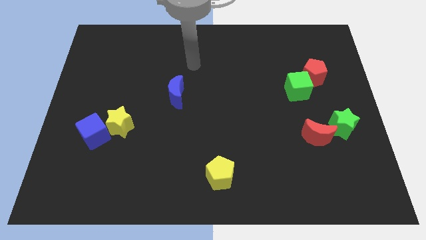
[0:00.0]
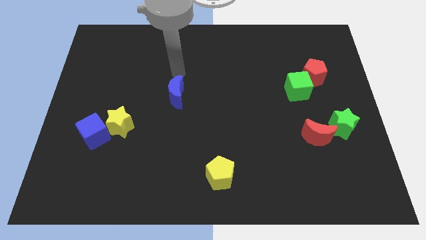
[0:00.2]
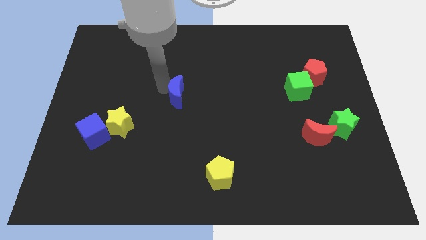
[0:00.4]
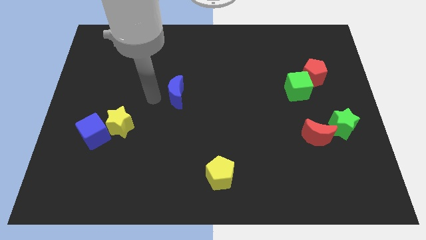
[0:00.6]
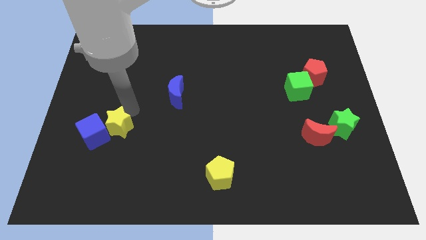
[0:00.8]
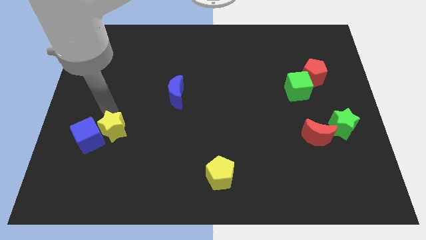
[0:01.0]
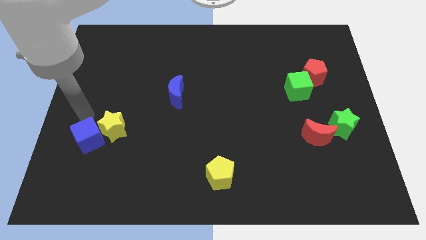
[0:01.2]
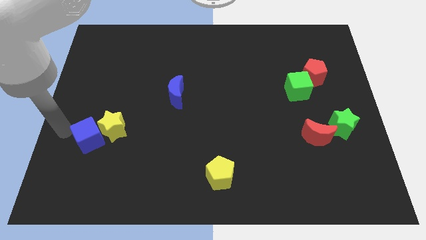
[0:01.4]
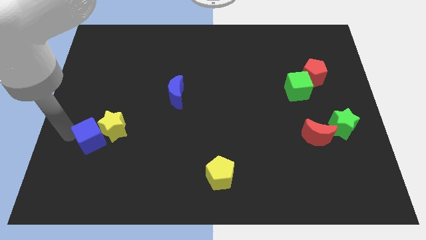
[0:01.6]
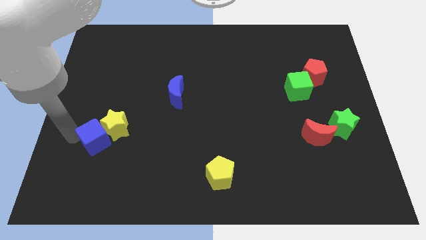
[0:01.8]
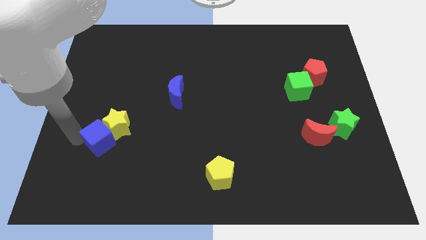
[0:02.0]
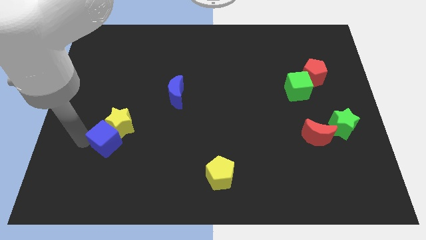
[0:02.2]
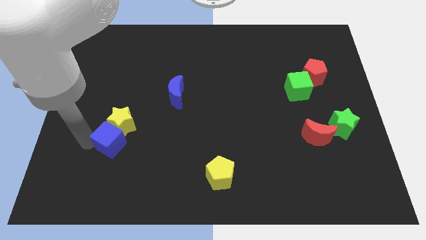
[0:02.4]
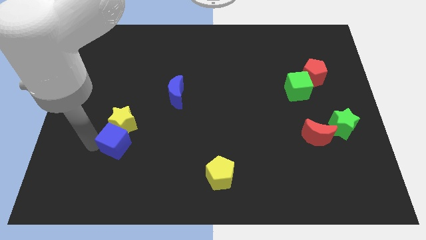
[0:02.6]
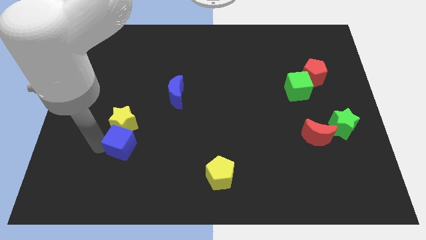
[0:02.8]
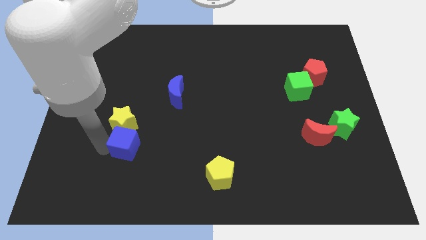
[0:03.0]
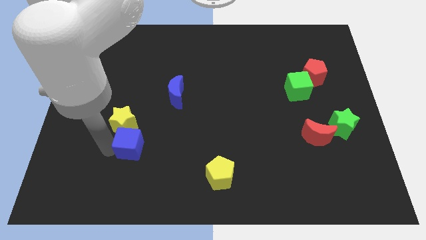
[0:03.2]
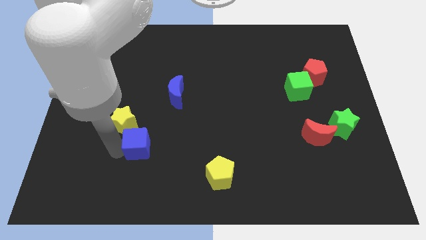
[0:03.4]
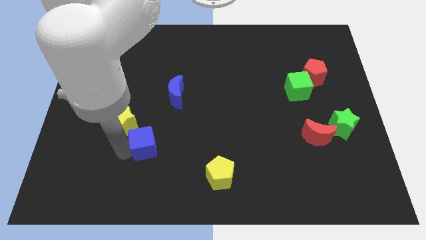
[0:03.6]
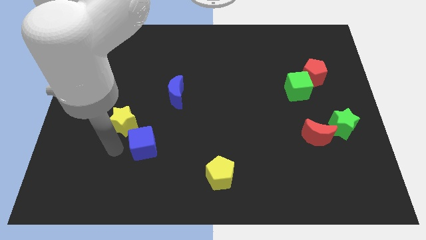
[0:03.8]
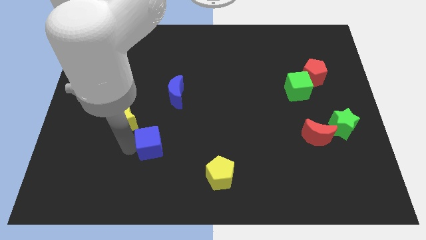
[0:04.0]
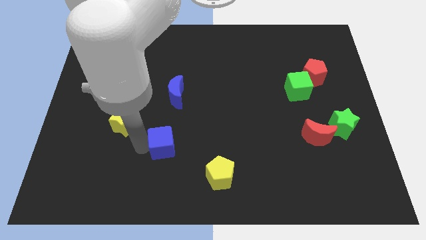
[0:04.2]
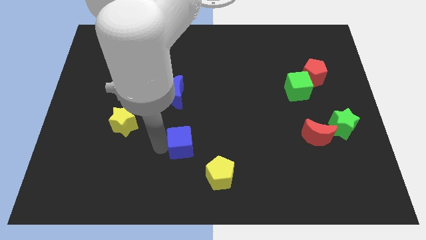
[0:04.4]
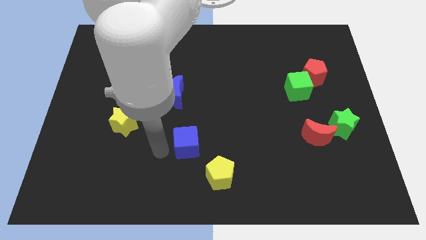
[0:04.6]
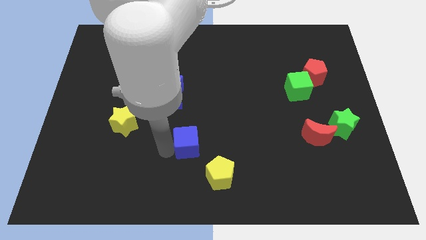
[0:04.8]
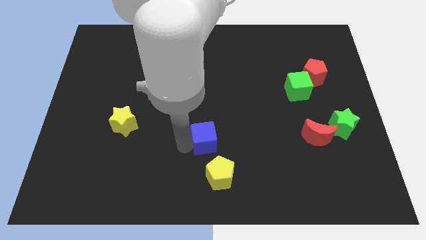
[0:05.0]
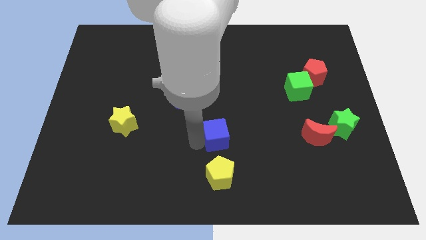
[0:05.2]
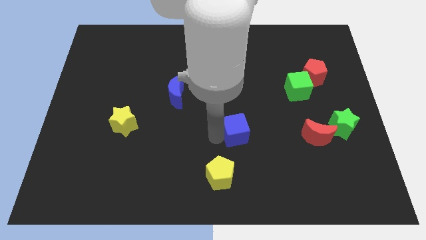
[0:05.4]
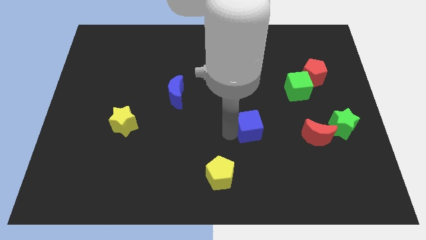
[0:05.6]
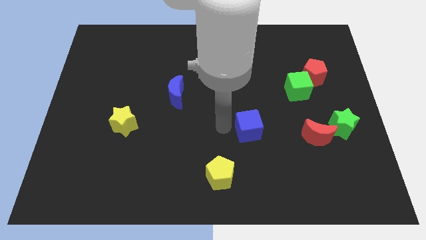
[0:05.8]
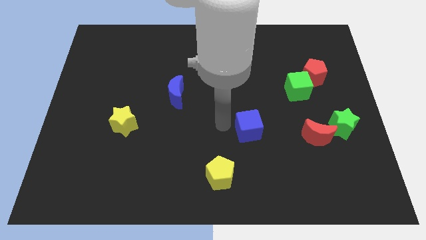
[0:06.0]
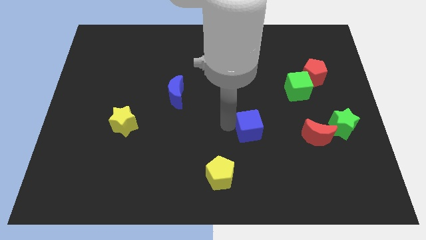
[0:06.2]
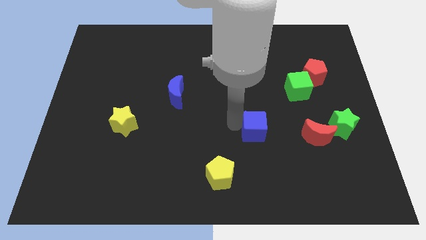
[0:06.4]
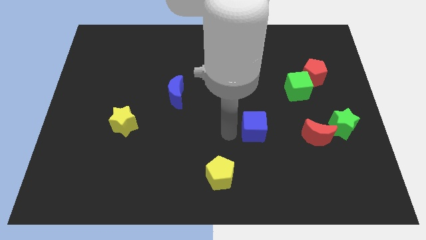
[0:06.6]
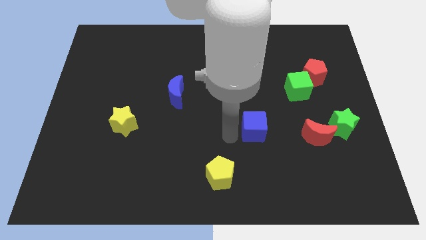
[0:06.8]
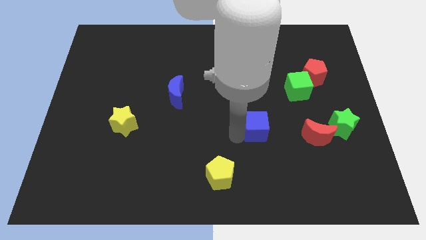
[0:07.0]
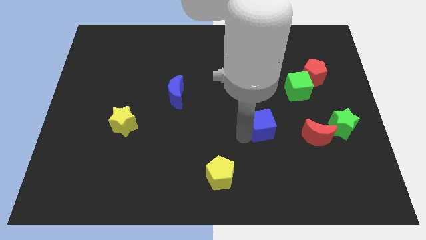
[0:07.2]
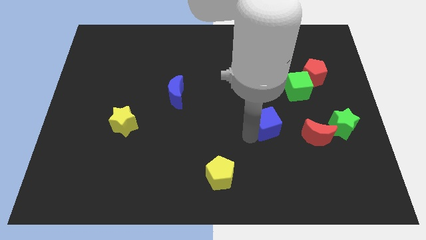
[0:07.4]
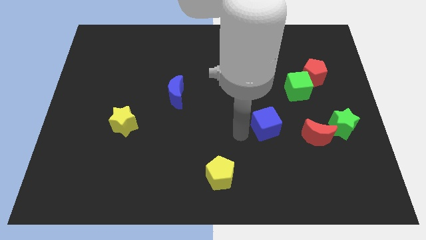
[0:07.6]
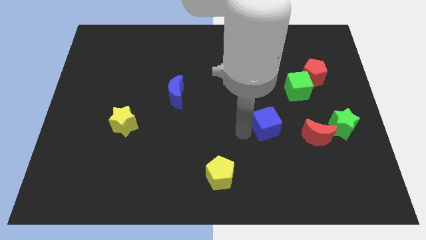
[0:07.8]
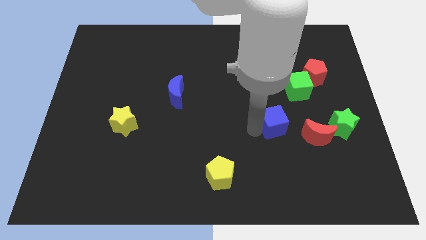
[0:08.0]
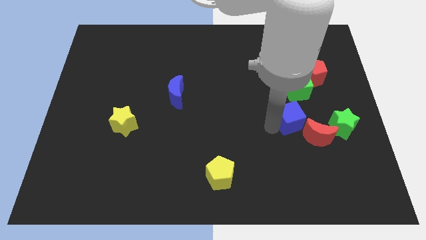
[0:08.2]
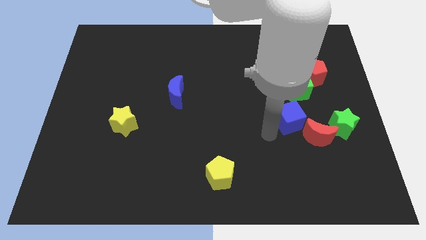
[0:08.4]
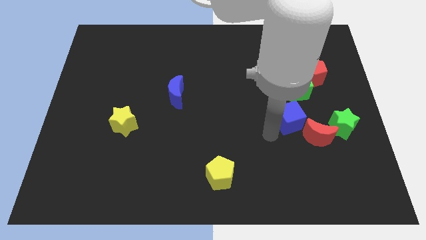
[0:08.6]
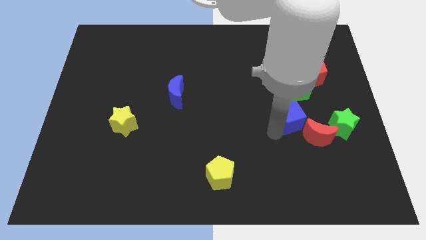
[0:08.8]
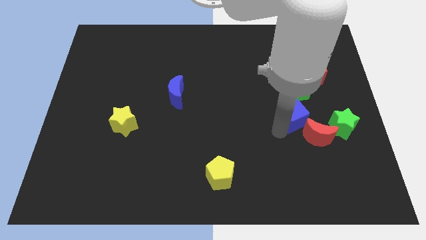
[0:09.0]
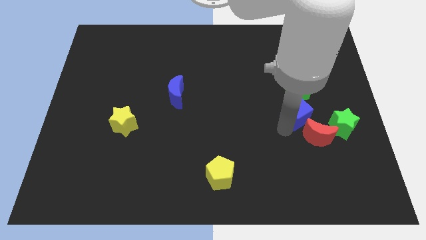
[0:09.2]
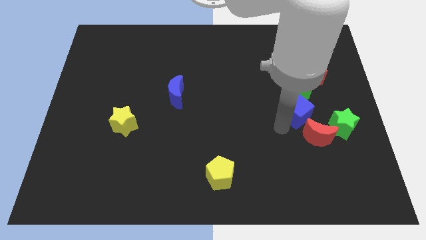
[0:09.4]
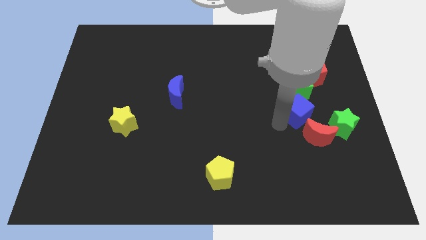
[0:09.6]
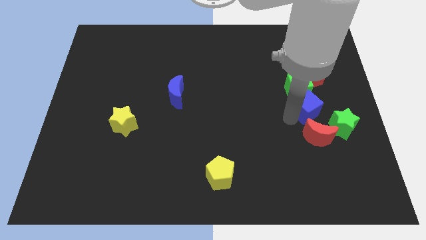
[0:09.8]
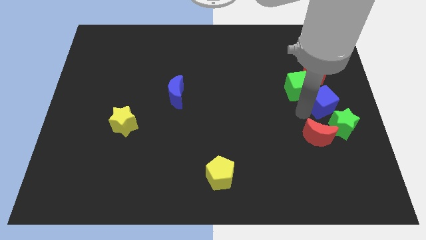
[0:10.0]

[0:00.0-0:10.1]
push the blue cube above the green star

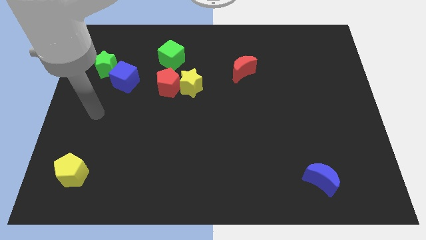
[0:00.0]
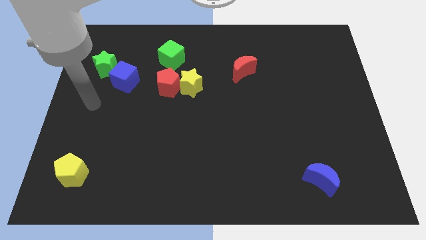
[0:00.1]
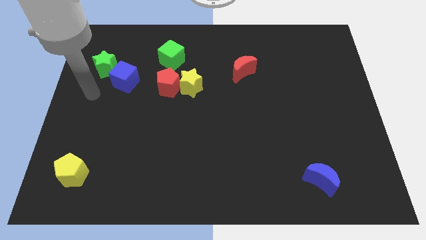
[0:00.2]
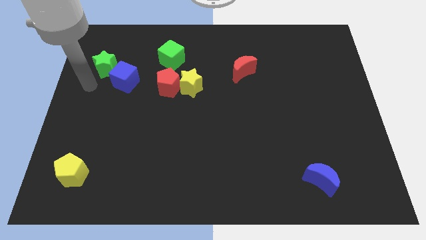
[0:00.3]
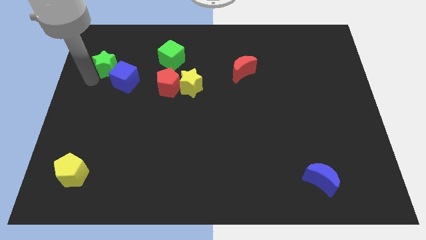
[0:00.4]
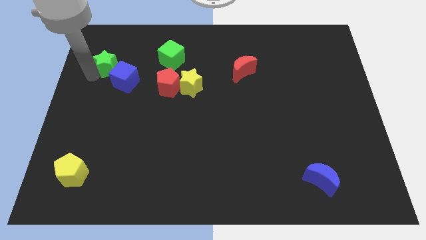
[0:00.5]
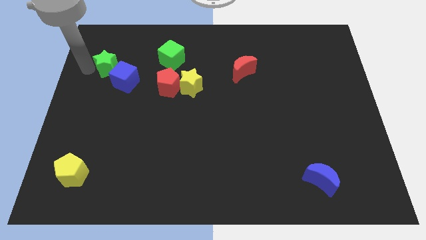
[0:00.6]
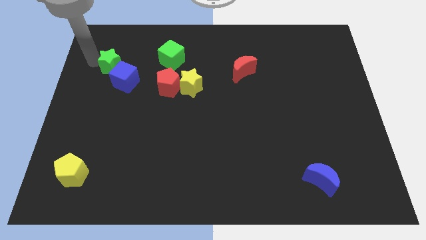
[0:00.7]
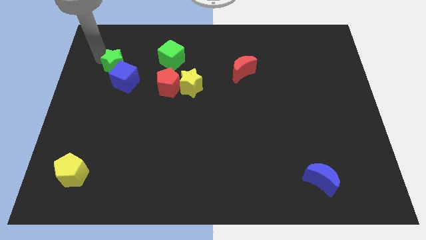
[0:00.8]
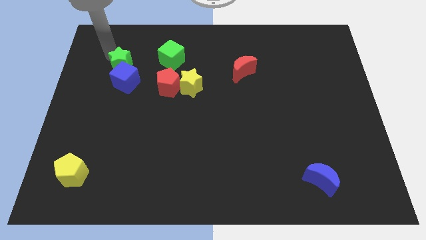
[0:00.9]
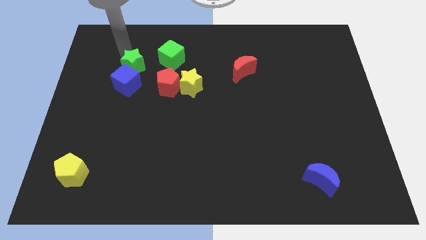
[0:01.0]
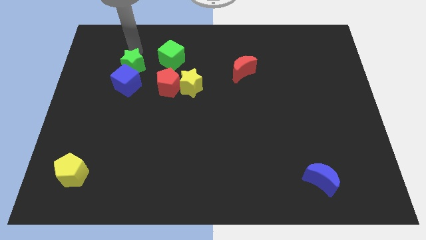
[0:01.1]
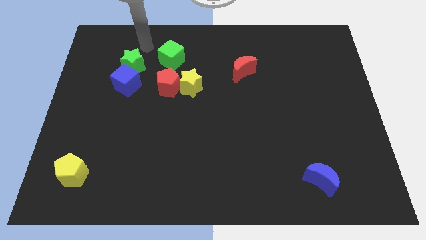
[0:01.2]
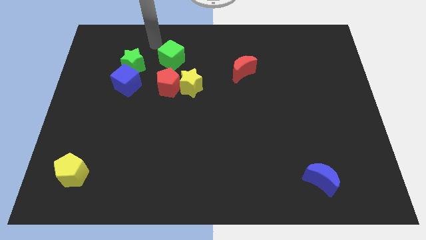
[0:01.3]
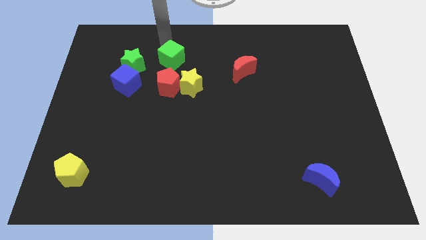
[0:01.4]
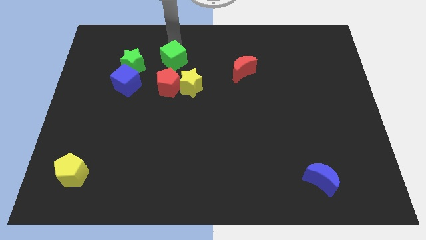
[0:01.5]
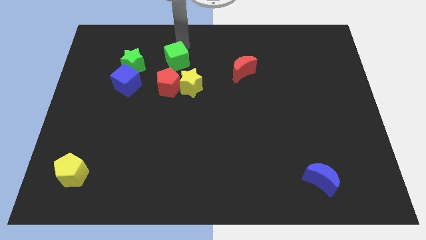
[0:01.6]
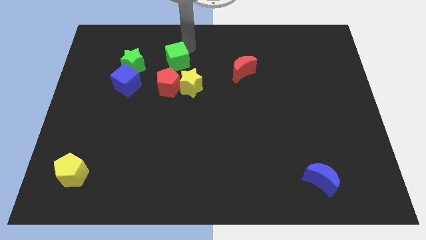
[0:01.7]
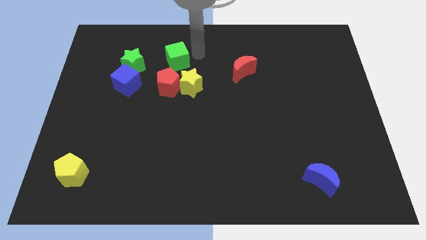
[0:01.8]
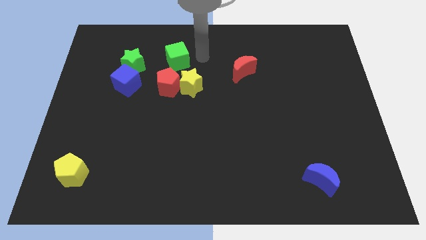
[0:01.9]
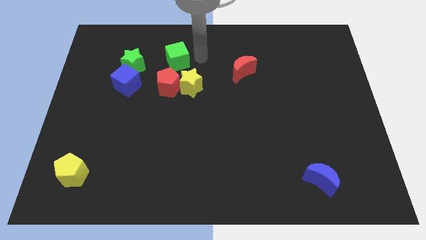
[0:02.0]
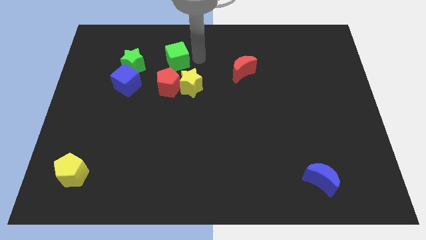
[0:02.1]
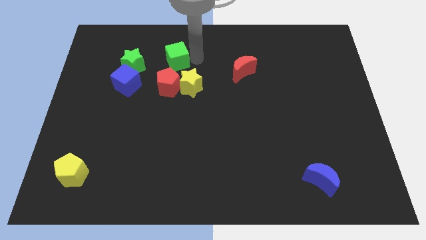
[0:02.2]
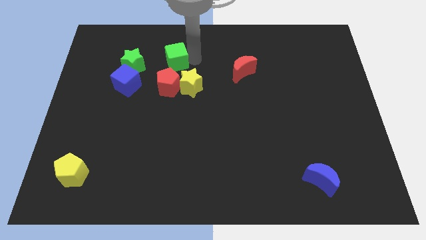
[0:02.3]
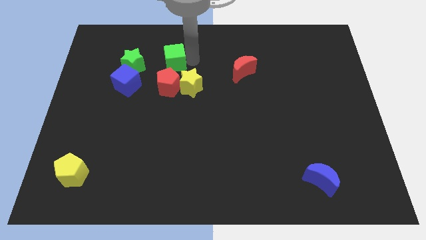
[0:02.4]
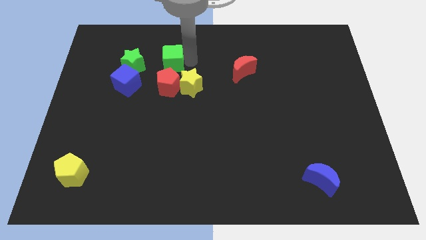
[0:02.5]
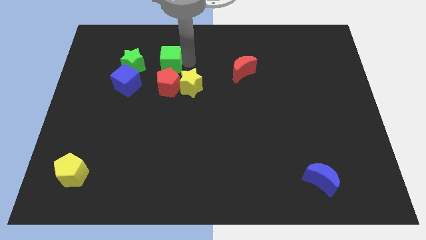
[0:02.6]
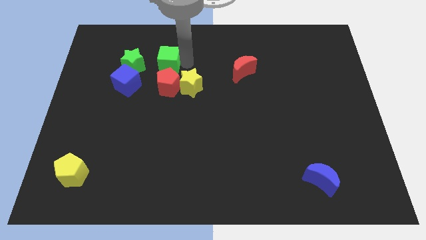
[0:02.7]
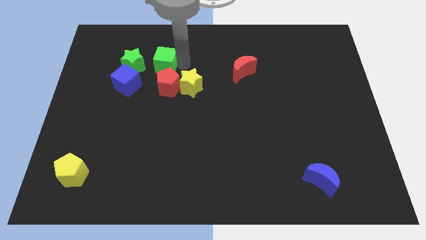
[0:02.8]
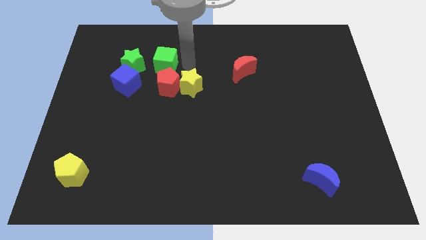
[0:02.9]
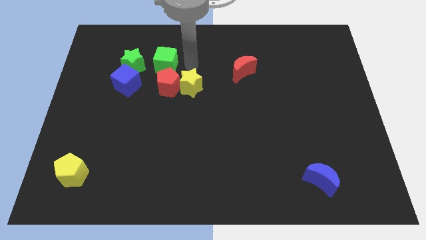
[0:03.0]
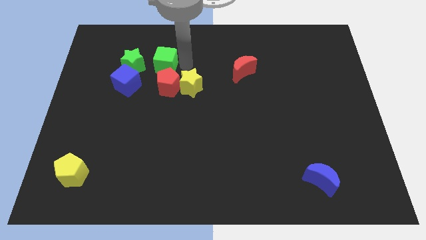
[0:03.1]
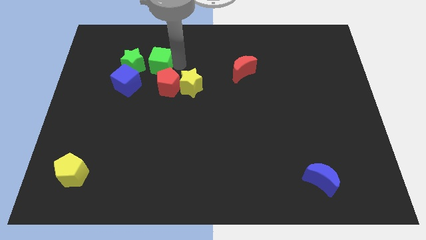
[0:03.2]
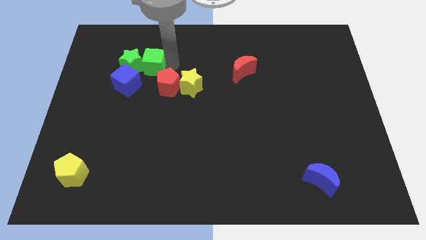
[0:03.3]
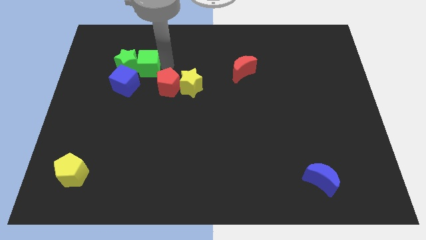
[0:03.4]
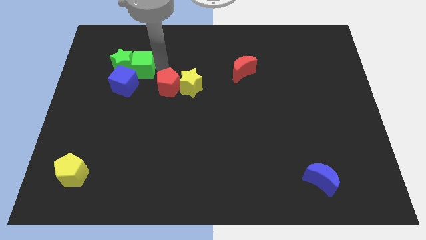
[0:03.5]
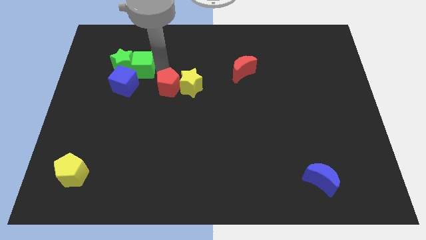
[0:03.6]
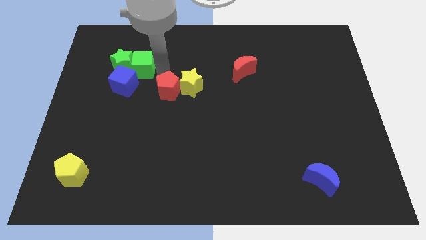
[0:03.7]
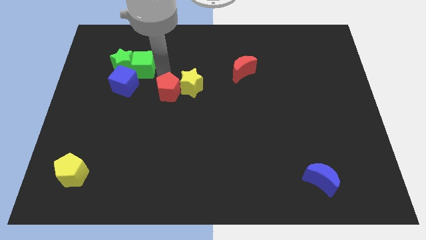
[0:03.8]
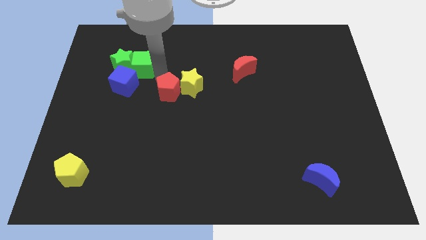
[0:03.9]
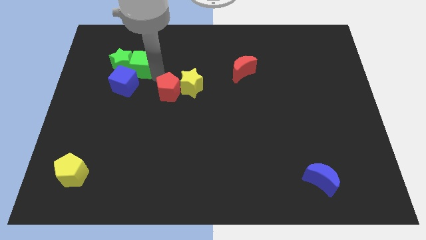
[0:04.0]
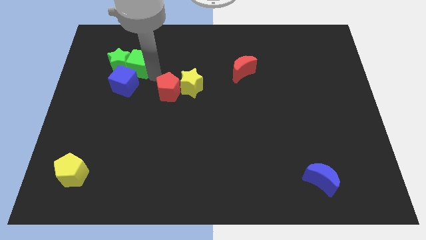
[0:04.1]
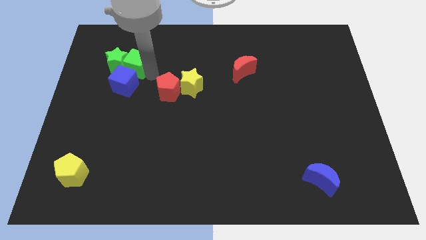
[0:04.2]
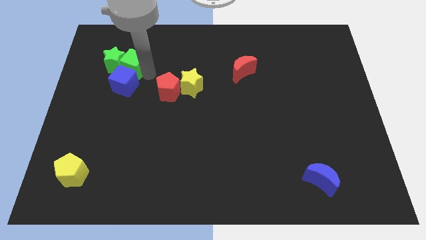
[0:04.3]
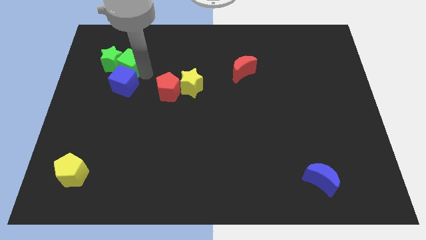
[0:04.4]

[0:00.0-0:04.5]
put the green cube to the top left side of the blue cube
